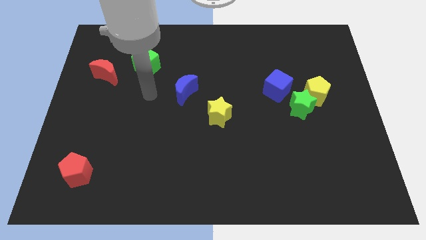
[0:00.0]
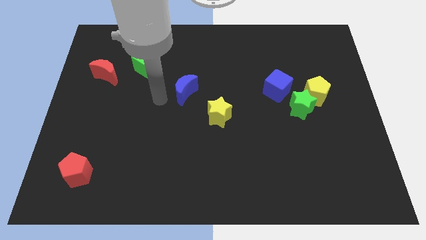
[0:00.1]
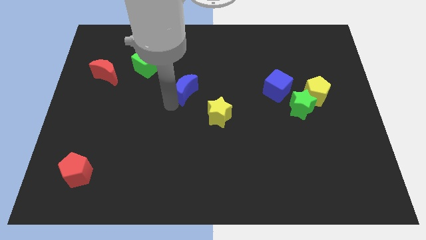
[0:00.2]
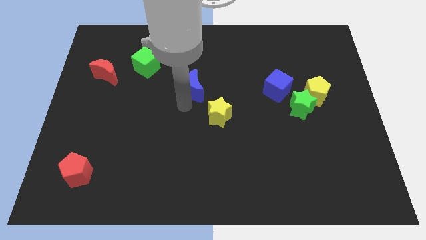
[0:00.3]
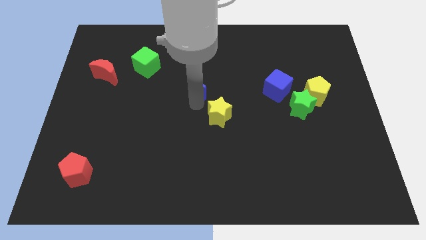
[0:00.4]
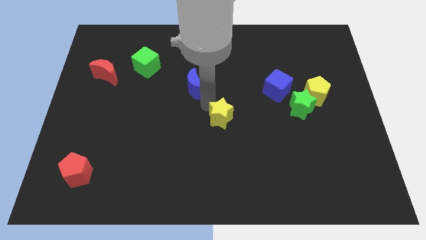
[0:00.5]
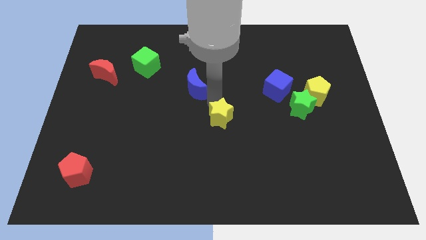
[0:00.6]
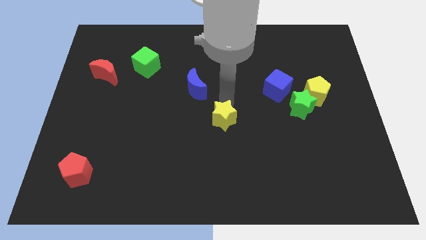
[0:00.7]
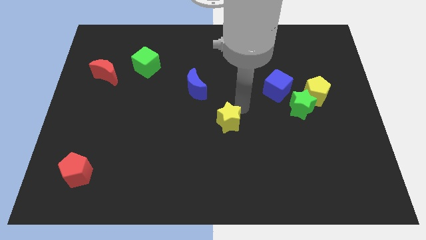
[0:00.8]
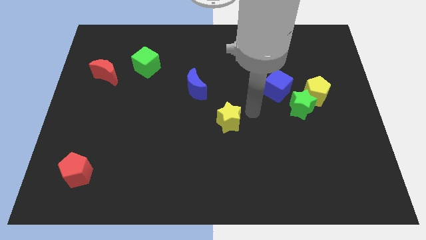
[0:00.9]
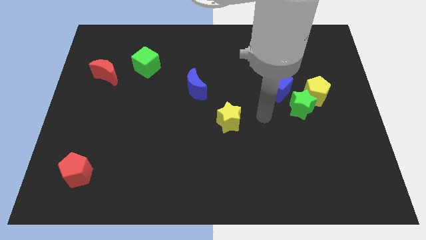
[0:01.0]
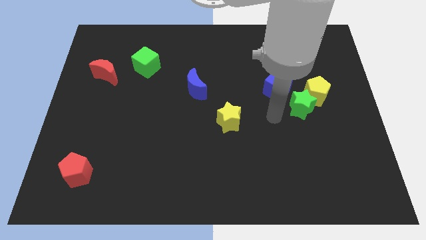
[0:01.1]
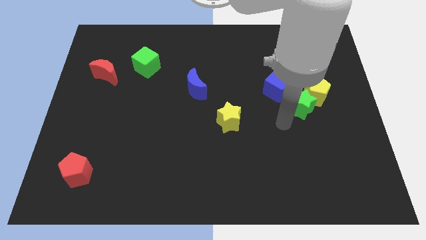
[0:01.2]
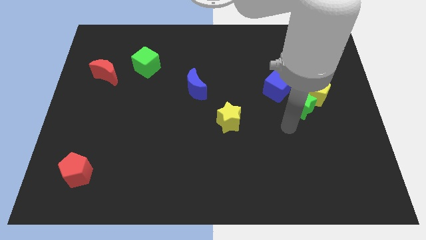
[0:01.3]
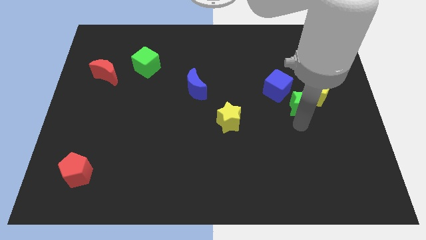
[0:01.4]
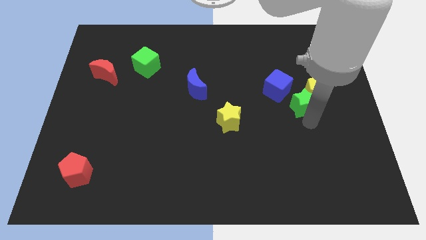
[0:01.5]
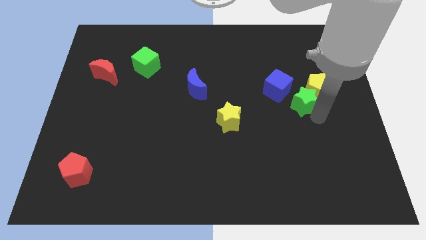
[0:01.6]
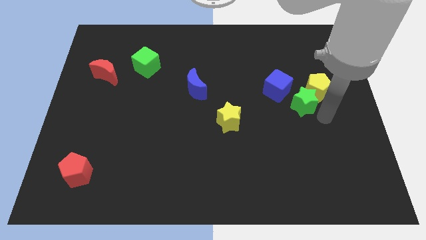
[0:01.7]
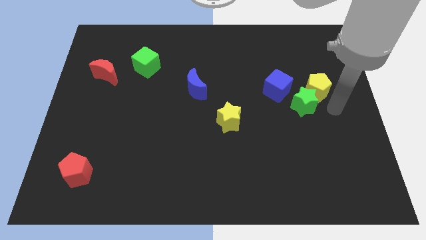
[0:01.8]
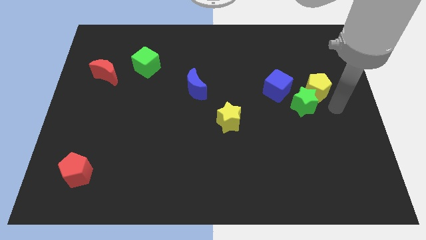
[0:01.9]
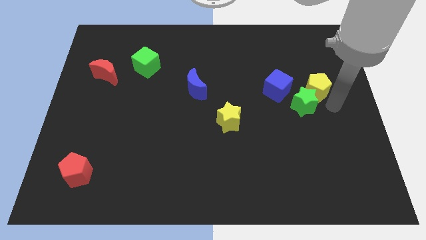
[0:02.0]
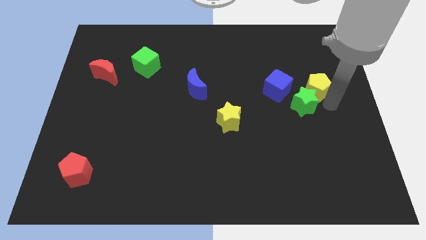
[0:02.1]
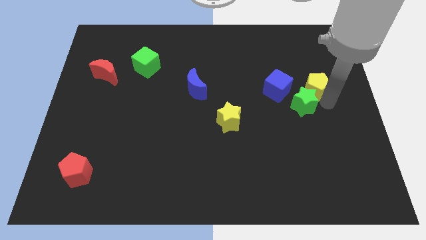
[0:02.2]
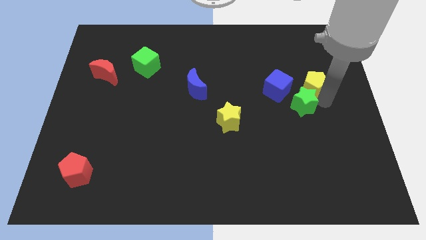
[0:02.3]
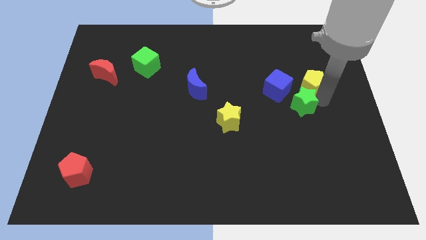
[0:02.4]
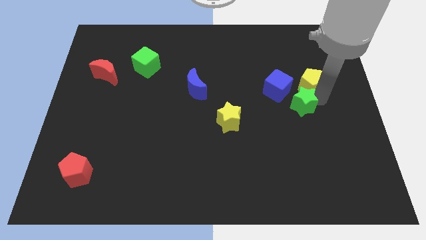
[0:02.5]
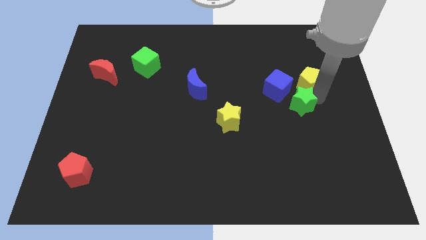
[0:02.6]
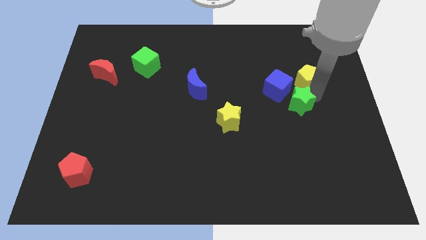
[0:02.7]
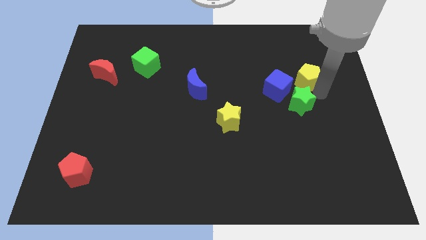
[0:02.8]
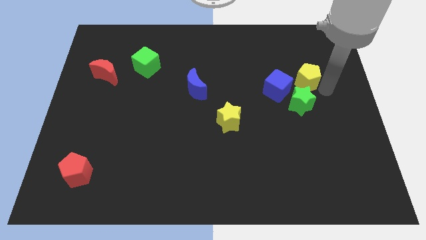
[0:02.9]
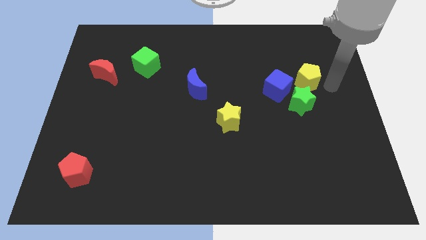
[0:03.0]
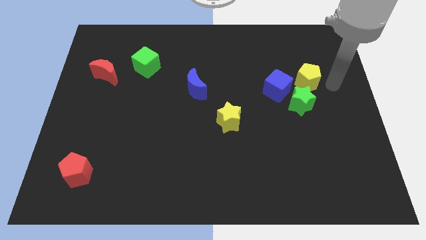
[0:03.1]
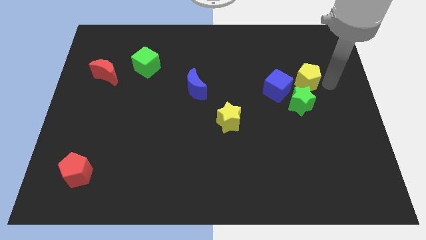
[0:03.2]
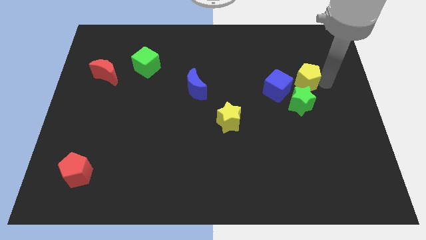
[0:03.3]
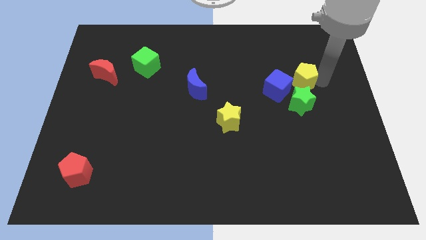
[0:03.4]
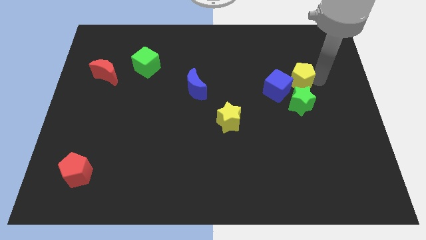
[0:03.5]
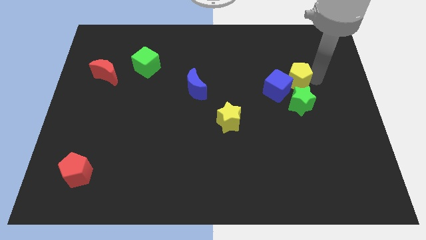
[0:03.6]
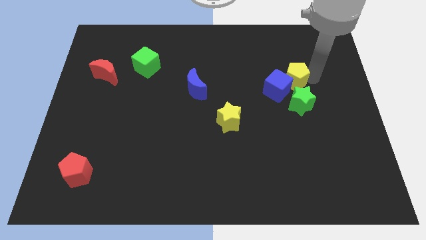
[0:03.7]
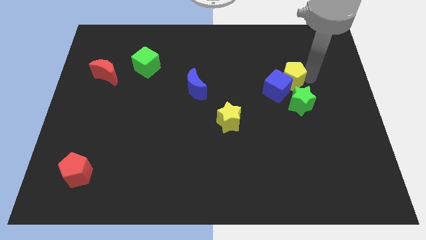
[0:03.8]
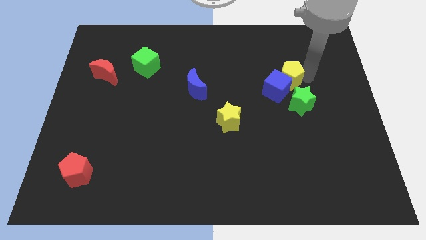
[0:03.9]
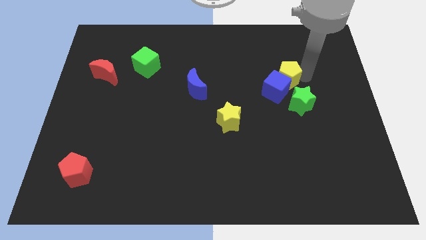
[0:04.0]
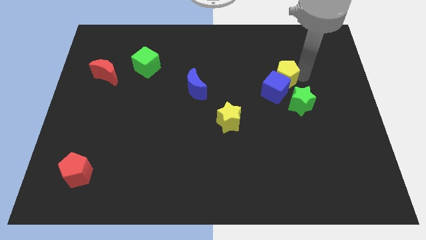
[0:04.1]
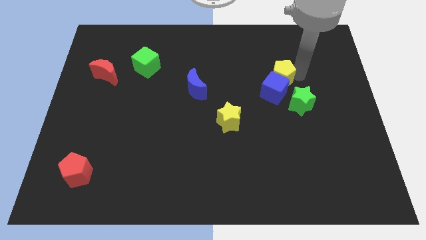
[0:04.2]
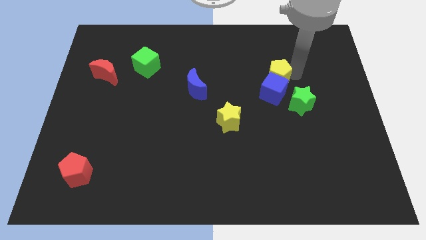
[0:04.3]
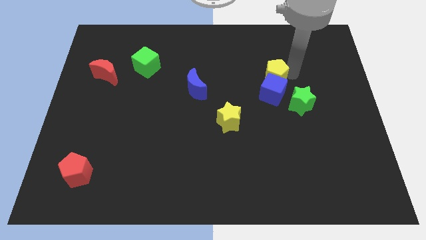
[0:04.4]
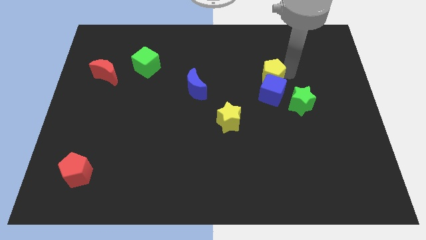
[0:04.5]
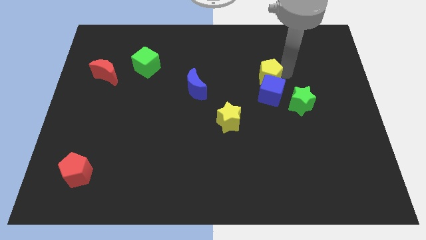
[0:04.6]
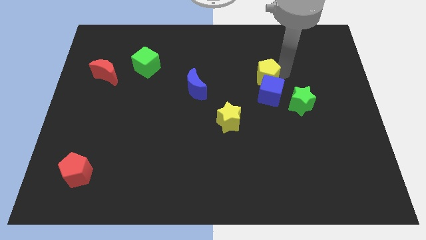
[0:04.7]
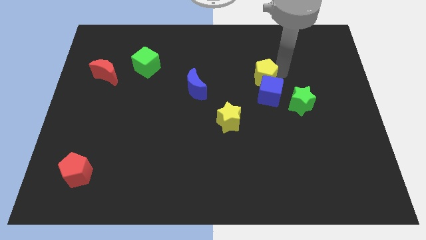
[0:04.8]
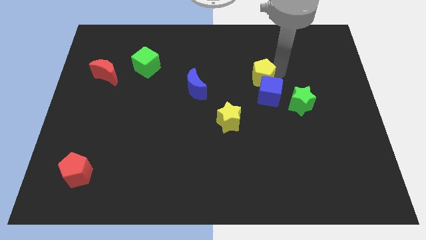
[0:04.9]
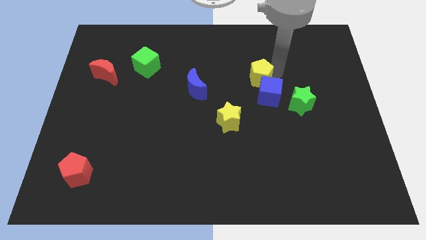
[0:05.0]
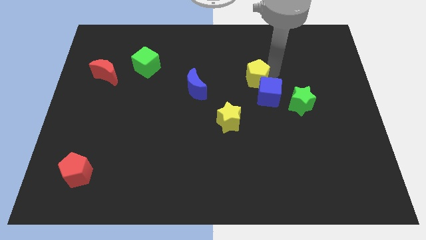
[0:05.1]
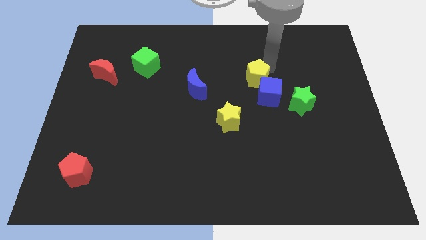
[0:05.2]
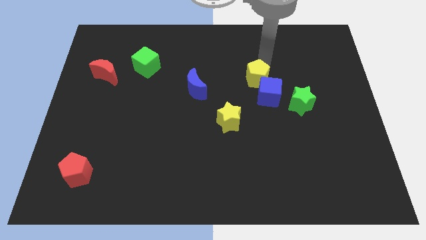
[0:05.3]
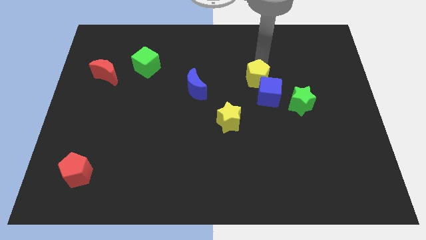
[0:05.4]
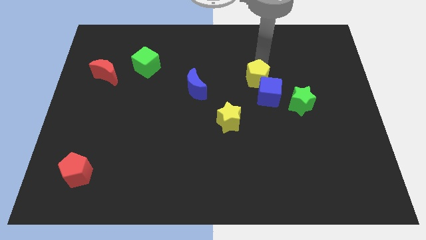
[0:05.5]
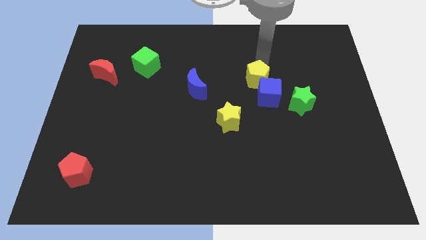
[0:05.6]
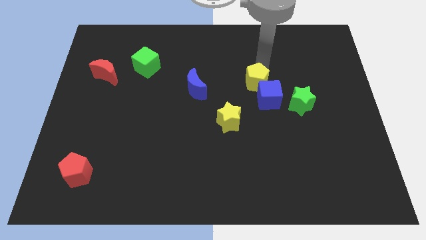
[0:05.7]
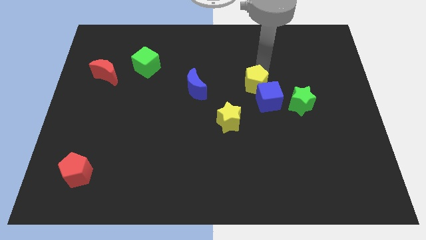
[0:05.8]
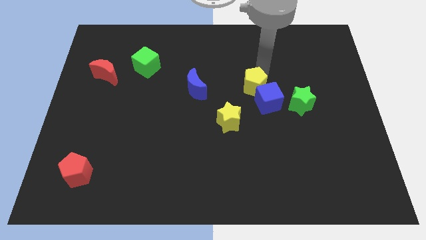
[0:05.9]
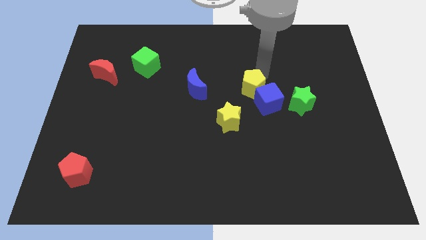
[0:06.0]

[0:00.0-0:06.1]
slide the yellow pentagon to the top right side of the yellow star

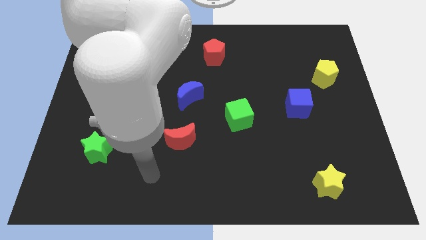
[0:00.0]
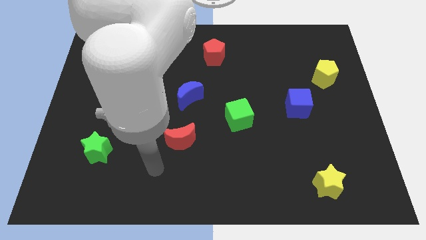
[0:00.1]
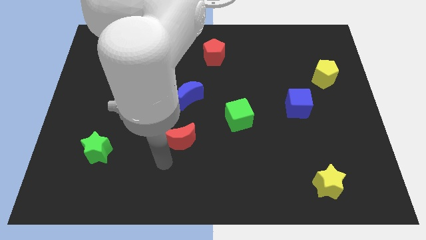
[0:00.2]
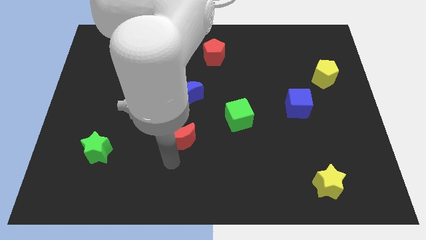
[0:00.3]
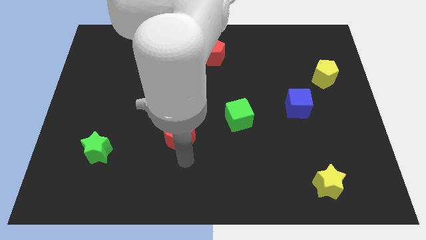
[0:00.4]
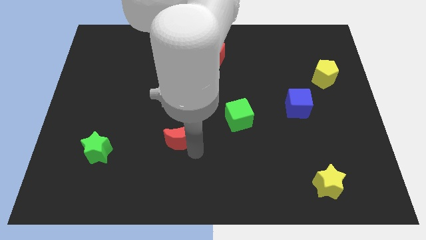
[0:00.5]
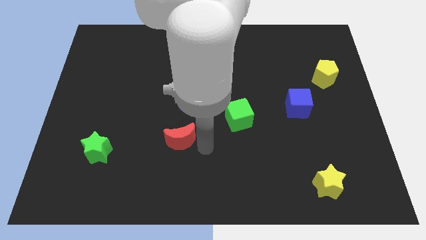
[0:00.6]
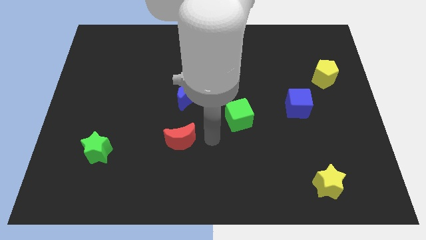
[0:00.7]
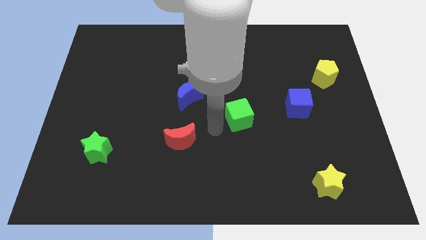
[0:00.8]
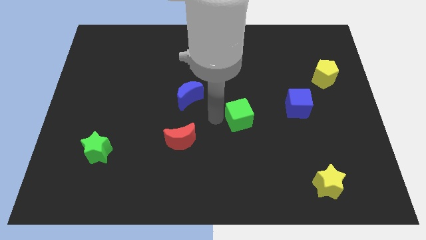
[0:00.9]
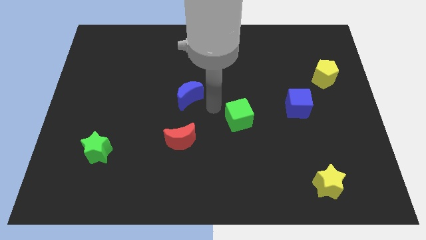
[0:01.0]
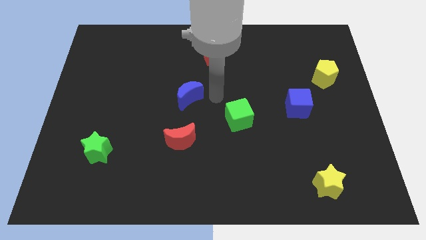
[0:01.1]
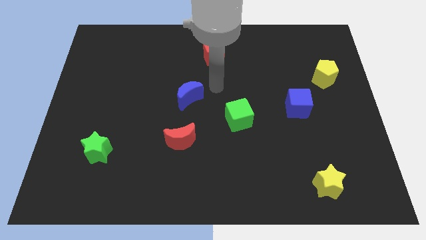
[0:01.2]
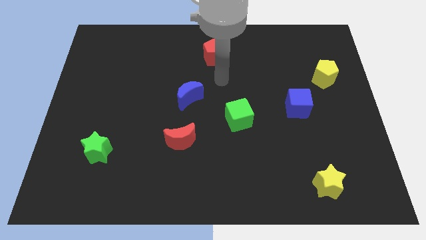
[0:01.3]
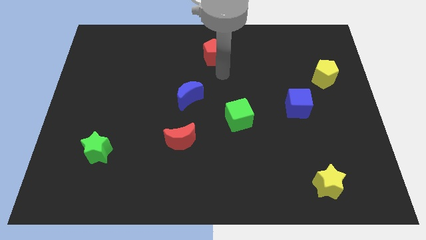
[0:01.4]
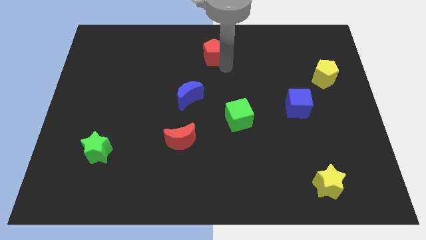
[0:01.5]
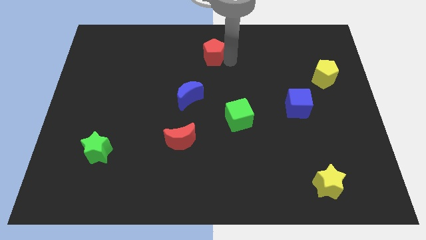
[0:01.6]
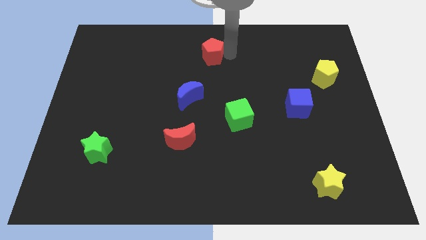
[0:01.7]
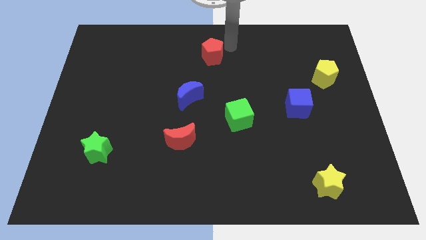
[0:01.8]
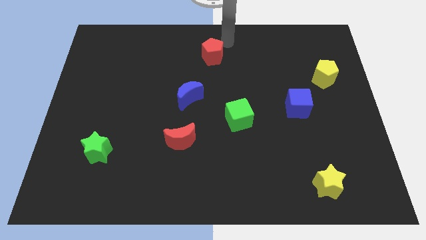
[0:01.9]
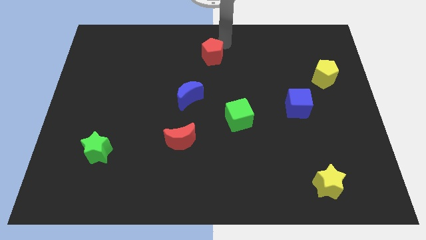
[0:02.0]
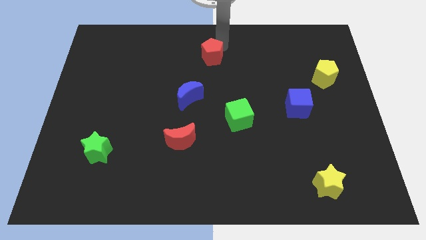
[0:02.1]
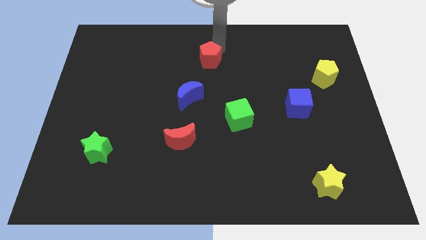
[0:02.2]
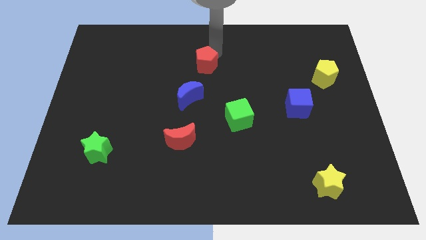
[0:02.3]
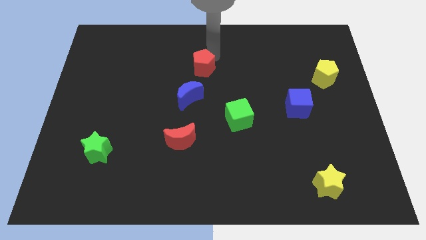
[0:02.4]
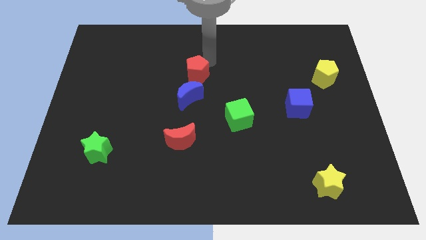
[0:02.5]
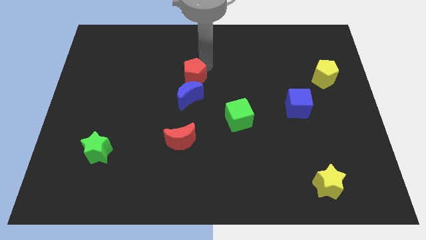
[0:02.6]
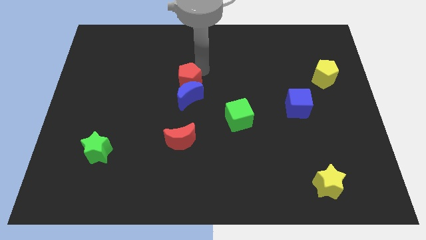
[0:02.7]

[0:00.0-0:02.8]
move the red pentagon to the top left side of the blue moon
